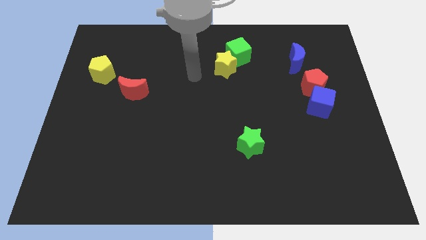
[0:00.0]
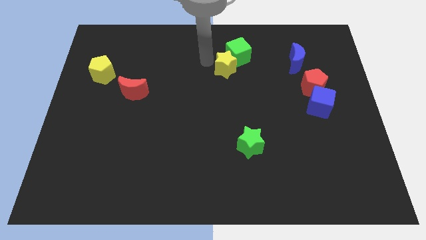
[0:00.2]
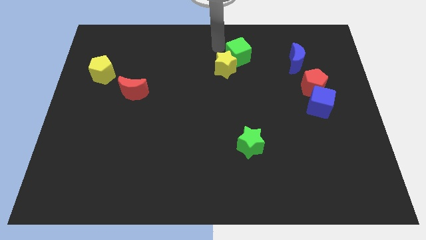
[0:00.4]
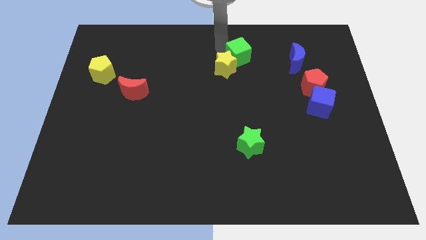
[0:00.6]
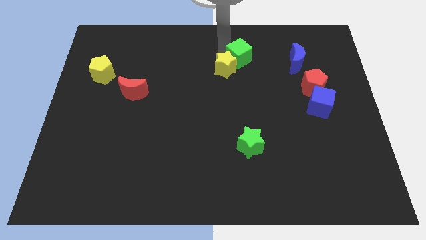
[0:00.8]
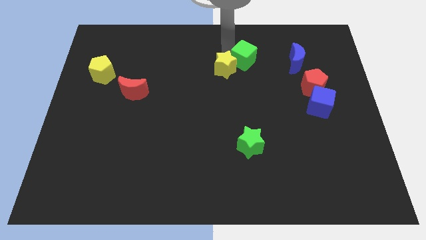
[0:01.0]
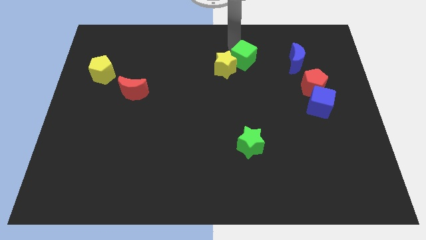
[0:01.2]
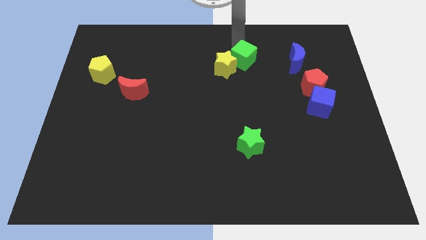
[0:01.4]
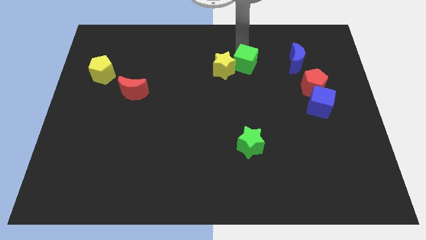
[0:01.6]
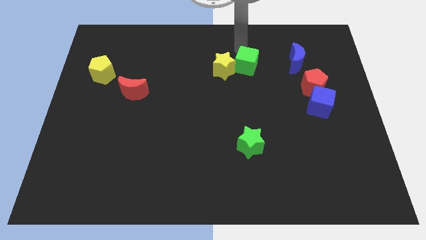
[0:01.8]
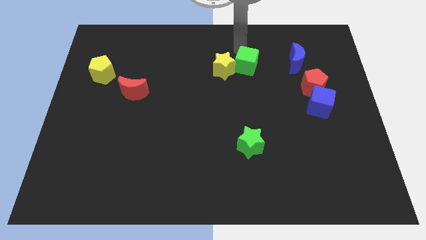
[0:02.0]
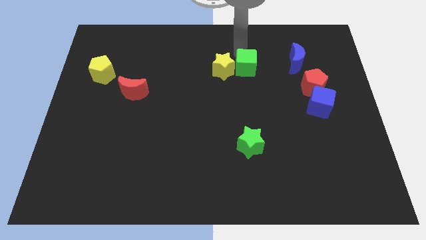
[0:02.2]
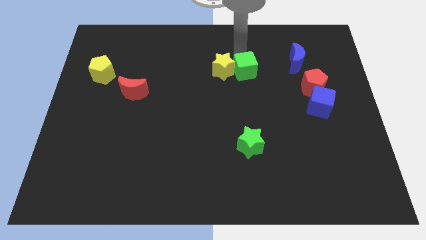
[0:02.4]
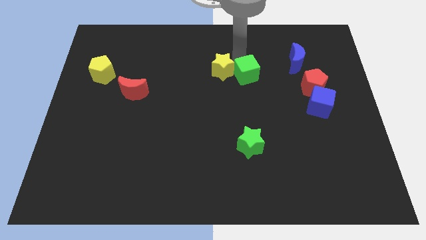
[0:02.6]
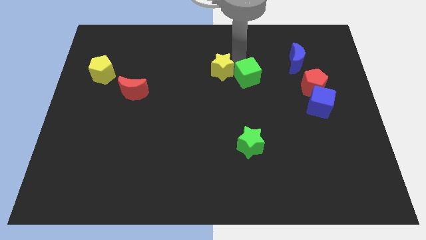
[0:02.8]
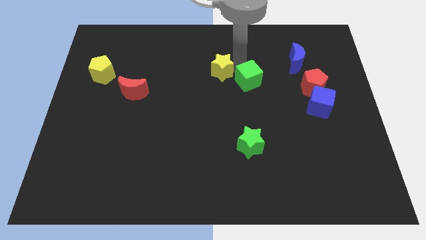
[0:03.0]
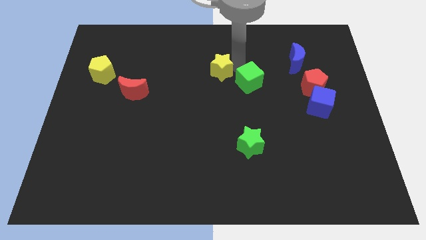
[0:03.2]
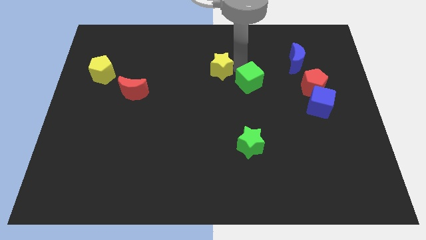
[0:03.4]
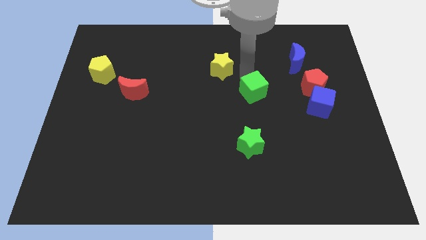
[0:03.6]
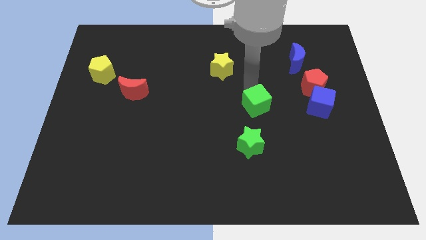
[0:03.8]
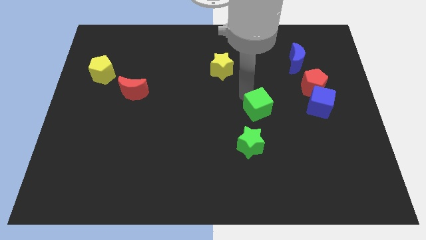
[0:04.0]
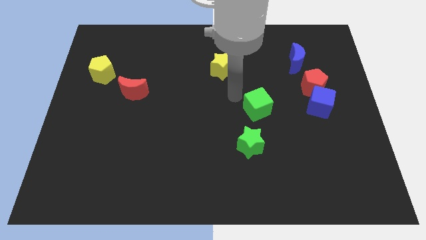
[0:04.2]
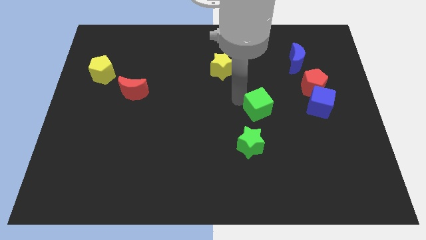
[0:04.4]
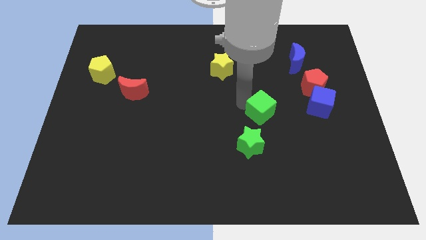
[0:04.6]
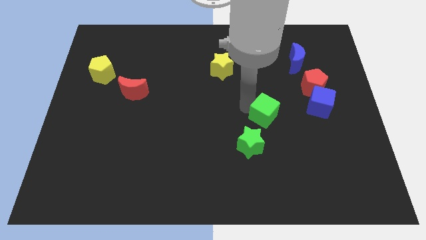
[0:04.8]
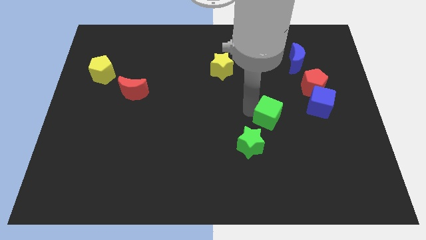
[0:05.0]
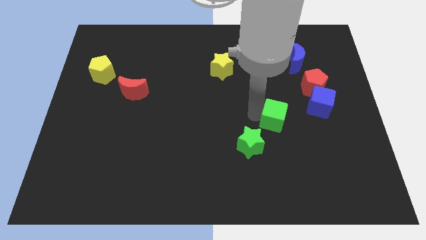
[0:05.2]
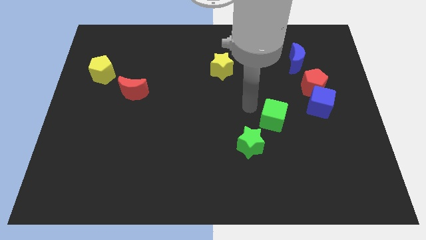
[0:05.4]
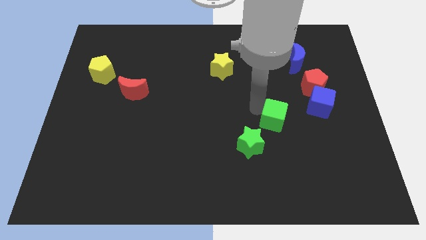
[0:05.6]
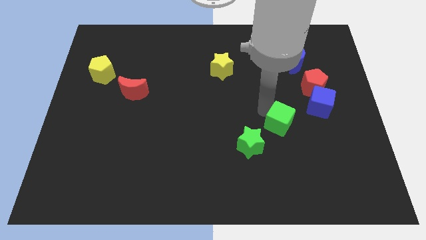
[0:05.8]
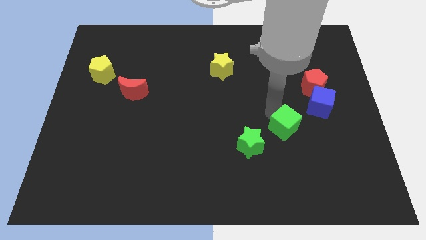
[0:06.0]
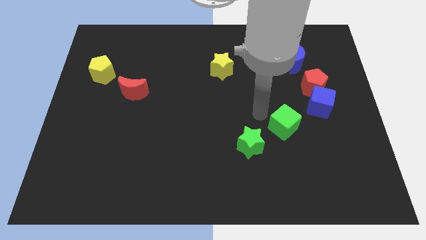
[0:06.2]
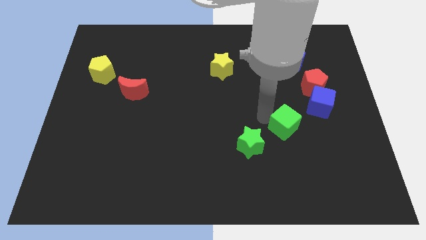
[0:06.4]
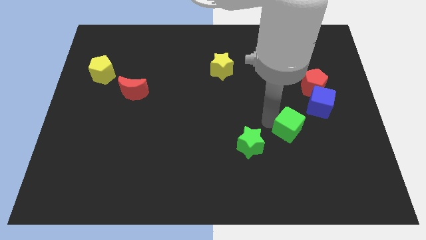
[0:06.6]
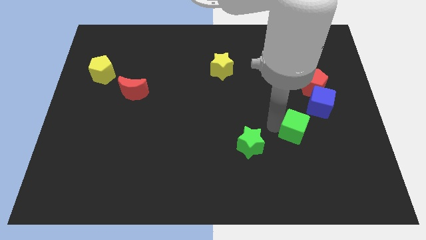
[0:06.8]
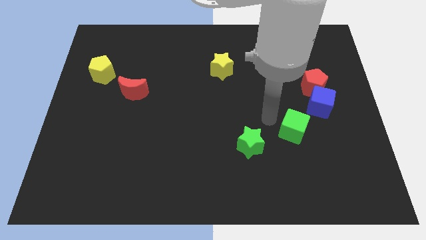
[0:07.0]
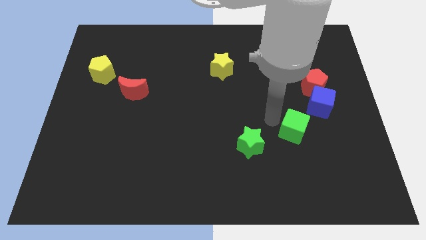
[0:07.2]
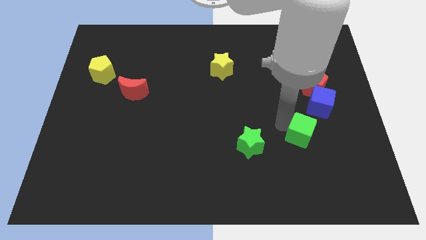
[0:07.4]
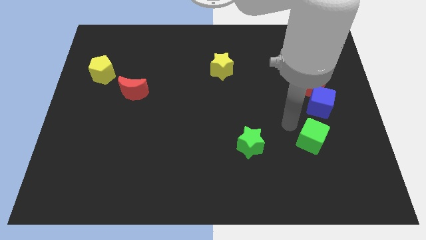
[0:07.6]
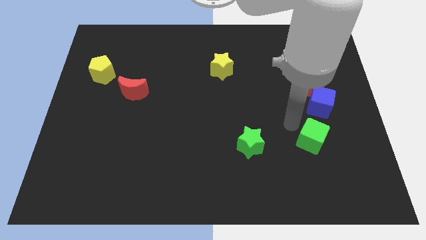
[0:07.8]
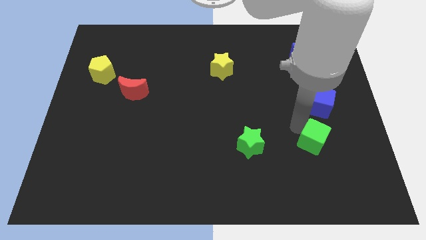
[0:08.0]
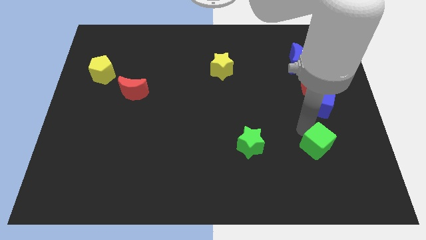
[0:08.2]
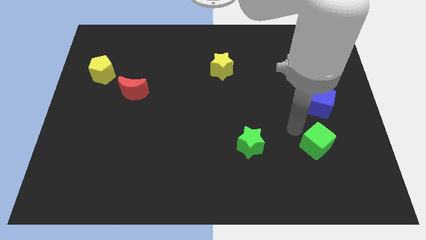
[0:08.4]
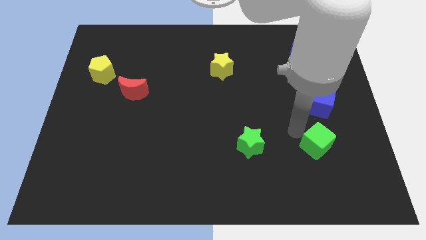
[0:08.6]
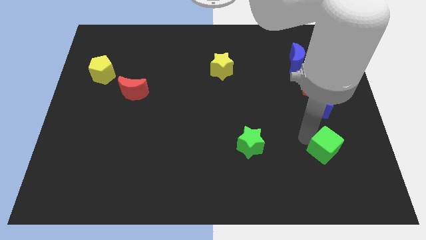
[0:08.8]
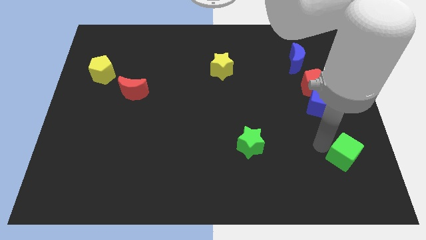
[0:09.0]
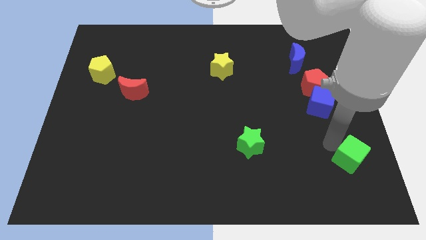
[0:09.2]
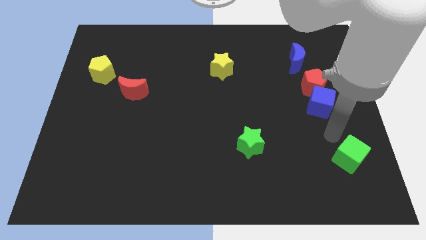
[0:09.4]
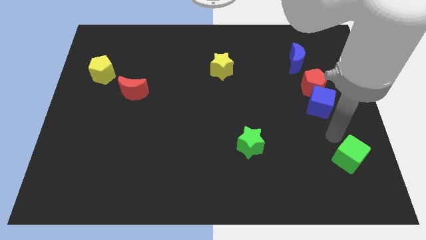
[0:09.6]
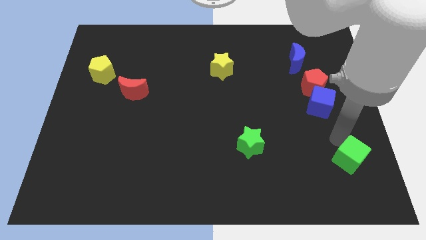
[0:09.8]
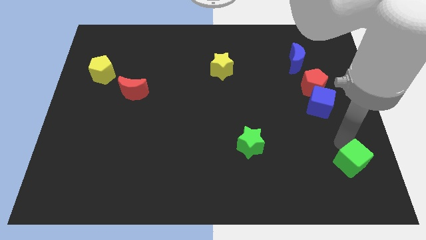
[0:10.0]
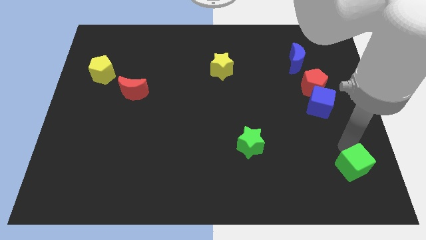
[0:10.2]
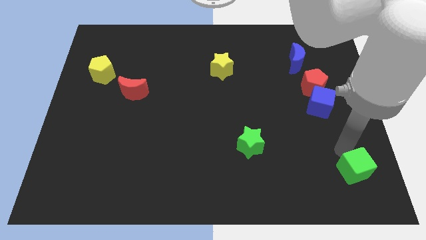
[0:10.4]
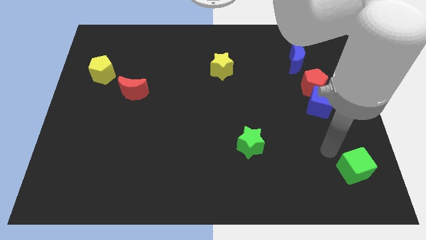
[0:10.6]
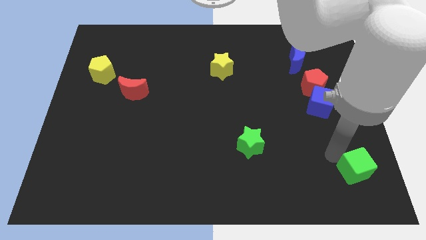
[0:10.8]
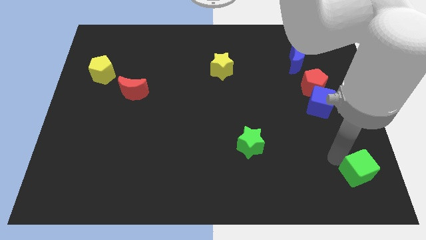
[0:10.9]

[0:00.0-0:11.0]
slide the green cube to the bottom right of the board

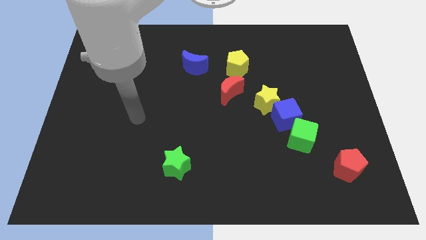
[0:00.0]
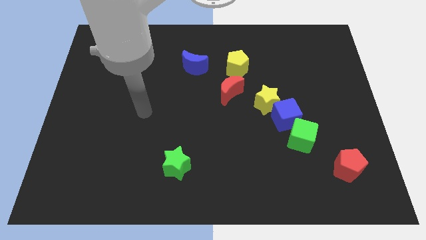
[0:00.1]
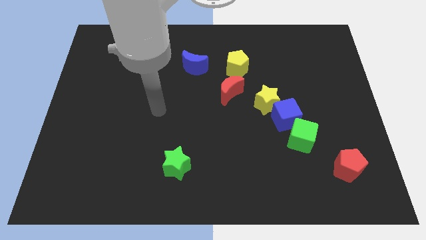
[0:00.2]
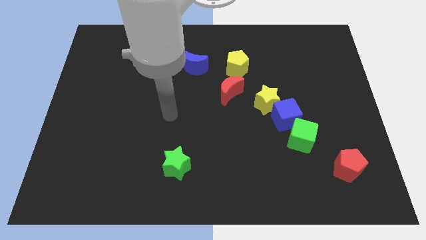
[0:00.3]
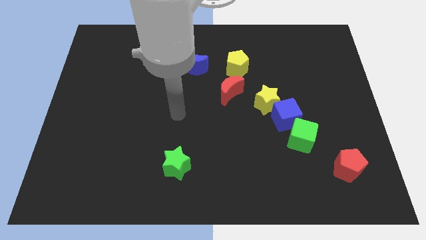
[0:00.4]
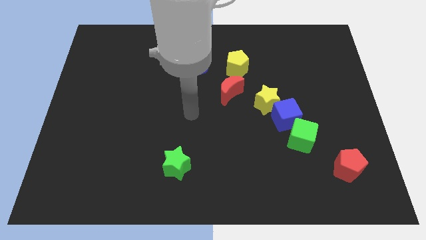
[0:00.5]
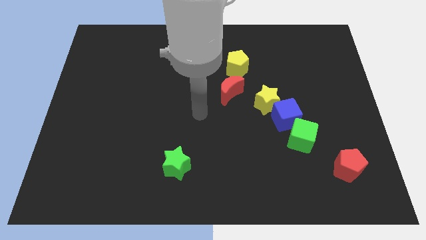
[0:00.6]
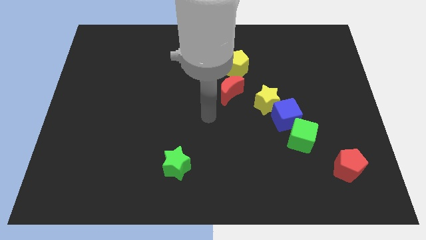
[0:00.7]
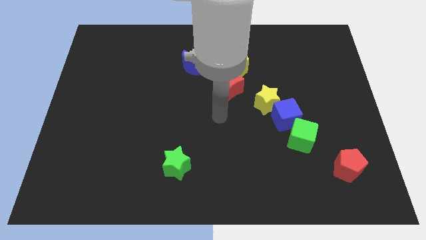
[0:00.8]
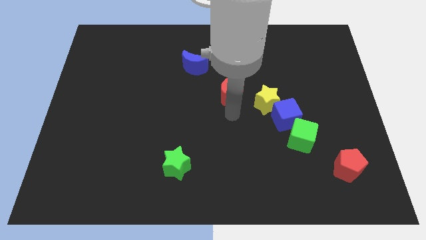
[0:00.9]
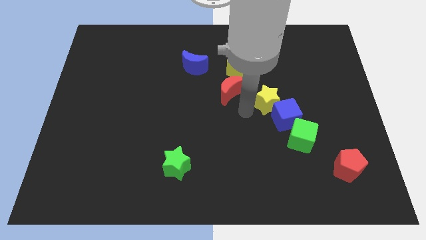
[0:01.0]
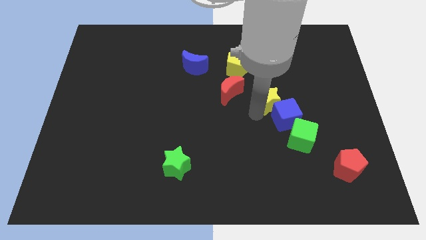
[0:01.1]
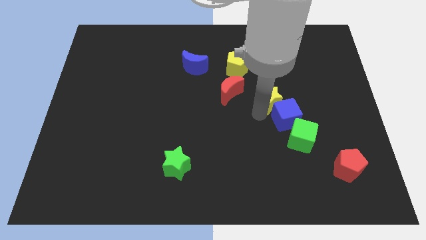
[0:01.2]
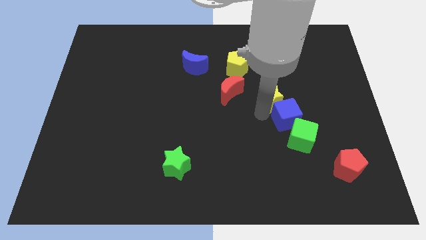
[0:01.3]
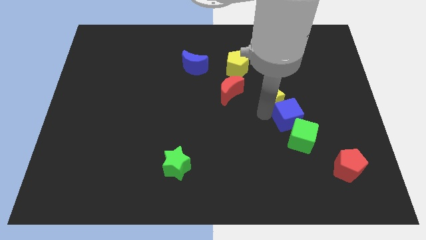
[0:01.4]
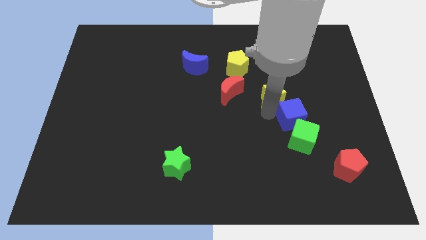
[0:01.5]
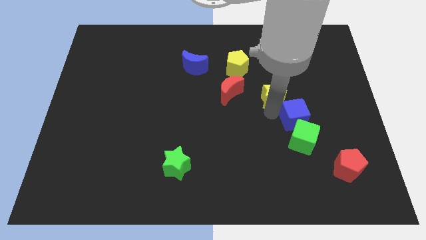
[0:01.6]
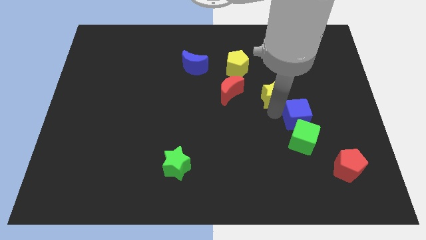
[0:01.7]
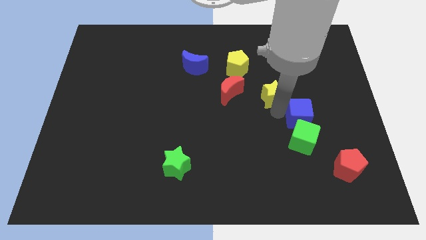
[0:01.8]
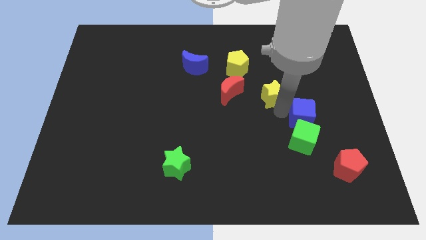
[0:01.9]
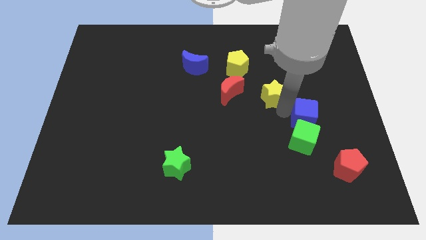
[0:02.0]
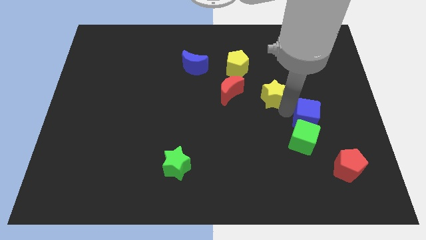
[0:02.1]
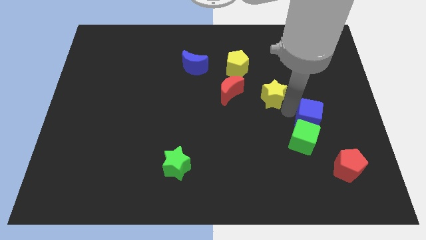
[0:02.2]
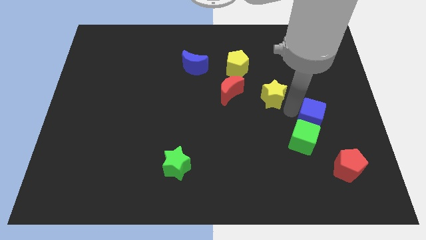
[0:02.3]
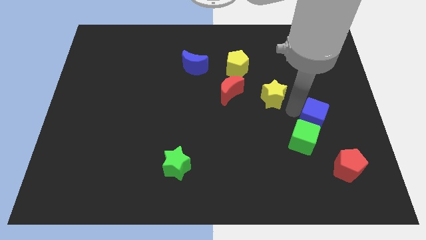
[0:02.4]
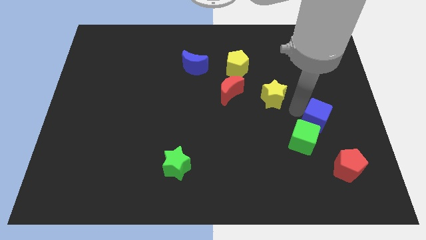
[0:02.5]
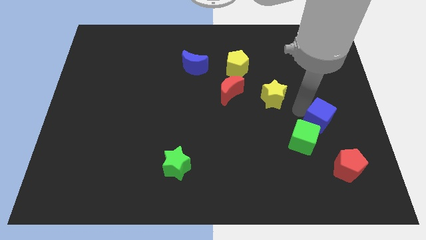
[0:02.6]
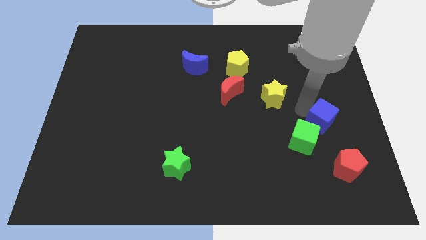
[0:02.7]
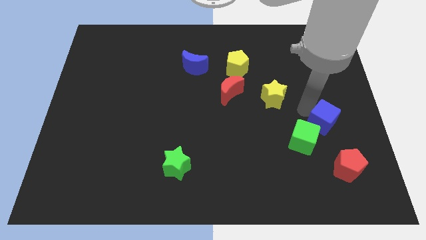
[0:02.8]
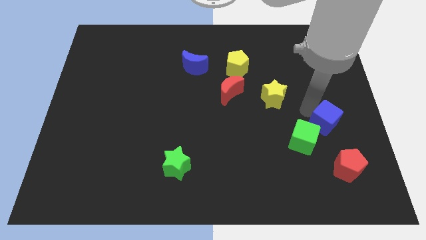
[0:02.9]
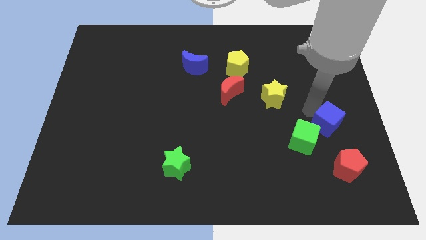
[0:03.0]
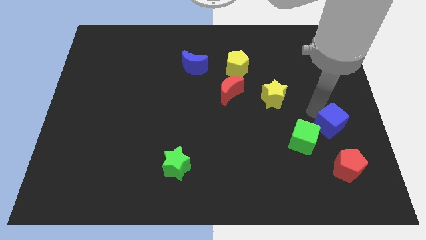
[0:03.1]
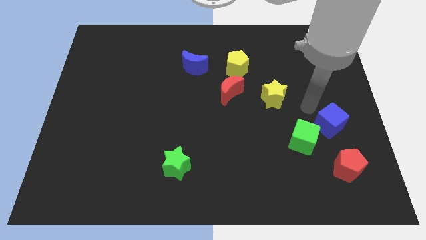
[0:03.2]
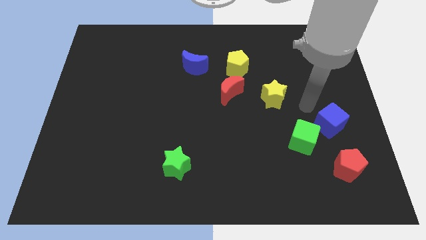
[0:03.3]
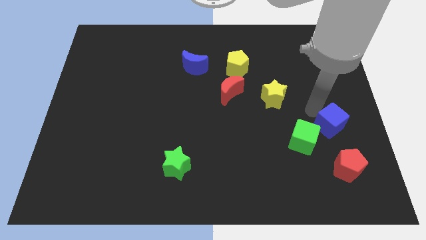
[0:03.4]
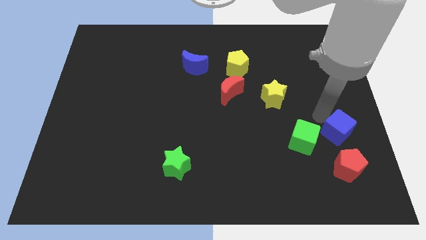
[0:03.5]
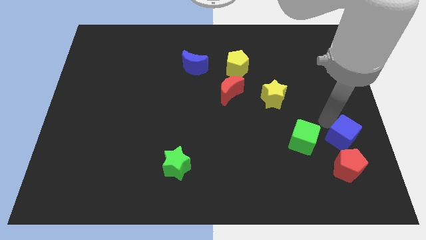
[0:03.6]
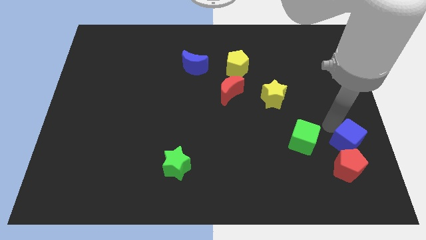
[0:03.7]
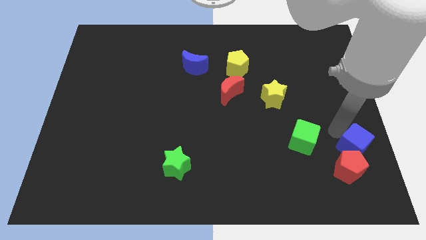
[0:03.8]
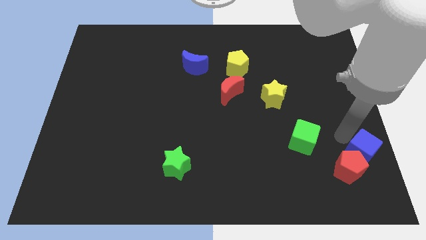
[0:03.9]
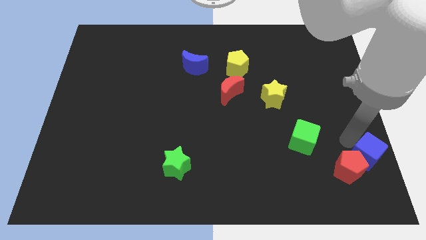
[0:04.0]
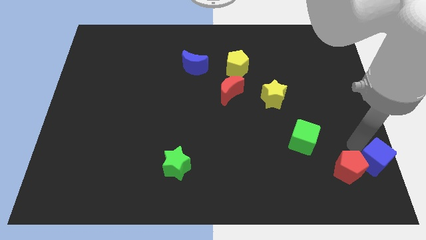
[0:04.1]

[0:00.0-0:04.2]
push the blue cube to the bottom right corner
